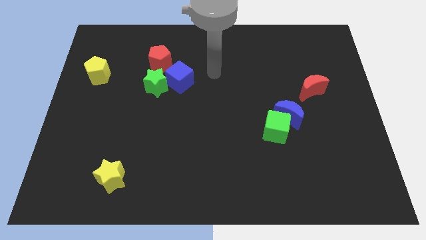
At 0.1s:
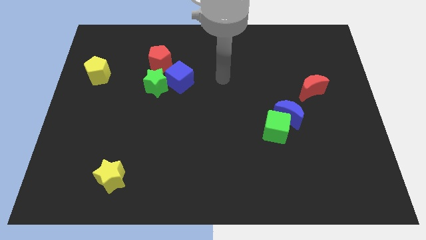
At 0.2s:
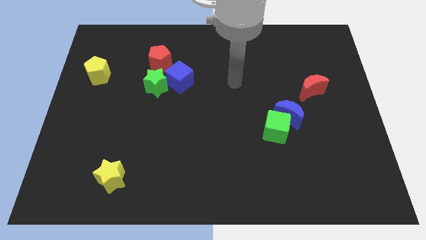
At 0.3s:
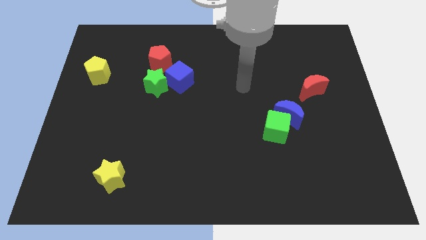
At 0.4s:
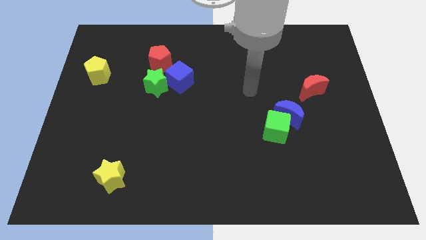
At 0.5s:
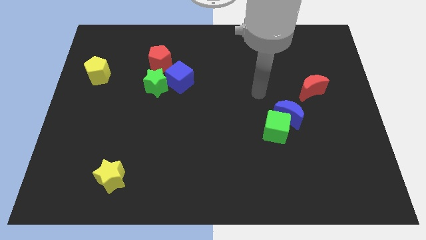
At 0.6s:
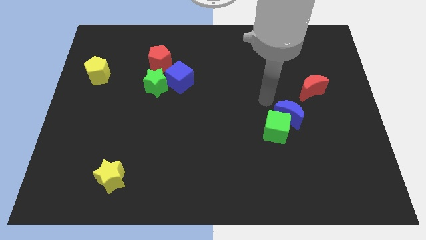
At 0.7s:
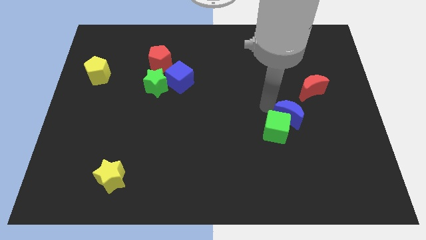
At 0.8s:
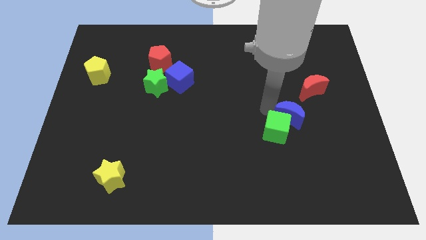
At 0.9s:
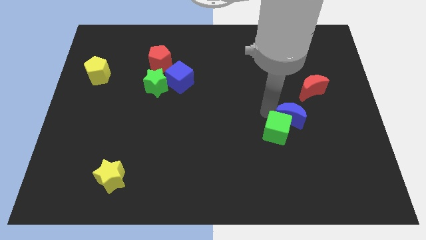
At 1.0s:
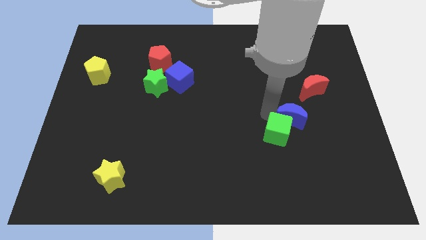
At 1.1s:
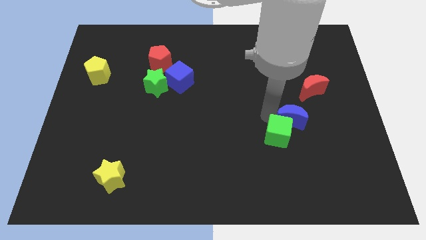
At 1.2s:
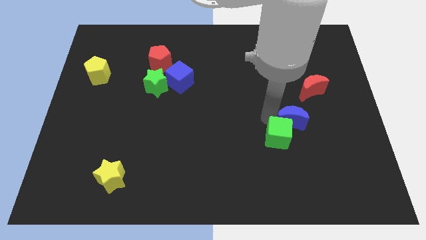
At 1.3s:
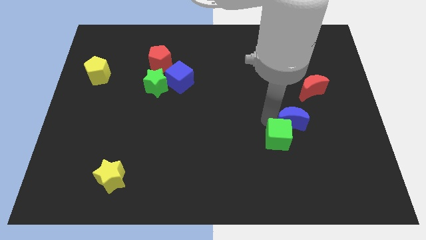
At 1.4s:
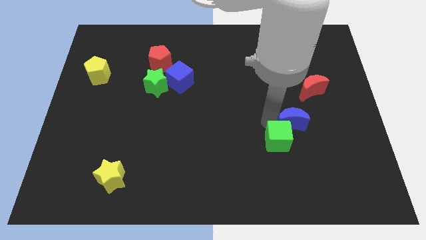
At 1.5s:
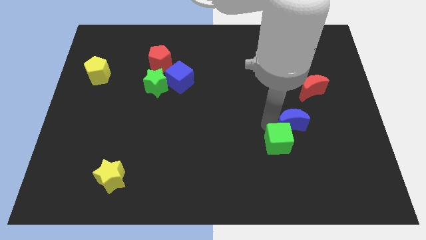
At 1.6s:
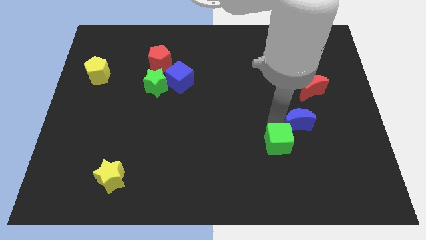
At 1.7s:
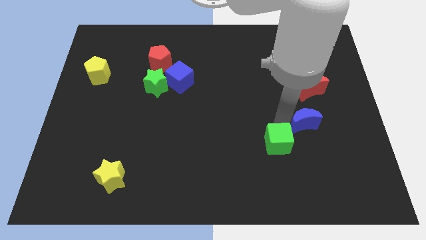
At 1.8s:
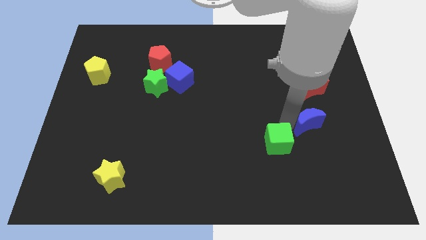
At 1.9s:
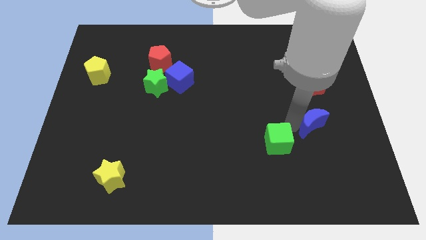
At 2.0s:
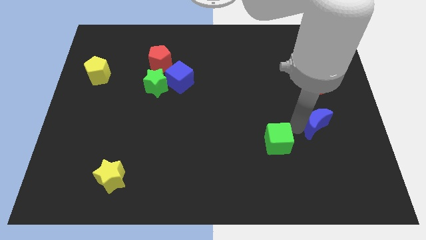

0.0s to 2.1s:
move the green cube away from the blue moon

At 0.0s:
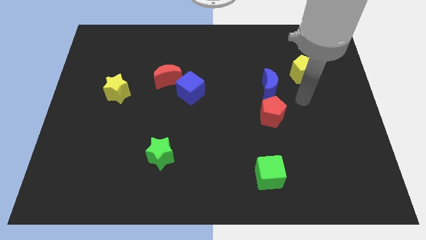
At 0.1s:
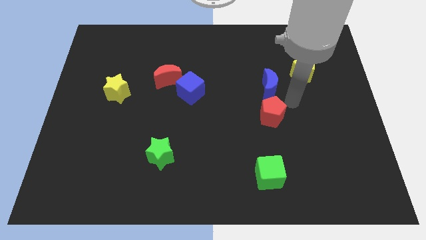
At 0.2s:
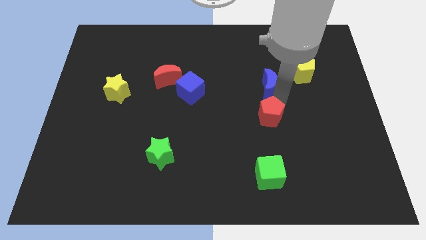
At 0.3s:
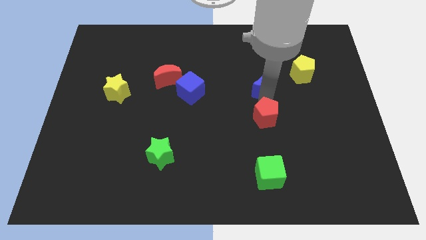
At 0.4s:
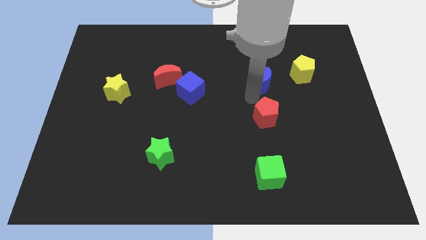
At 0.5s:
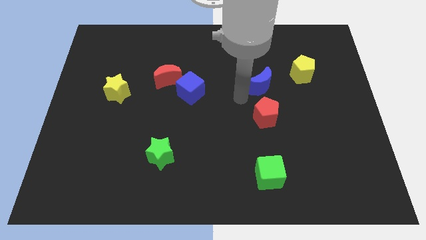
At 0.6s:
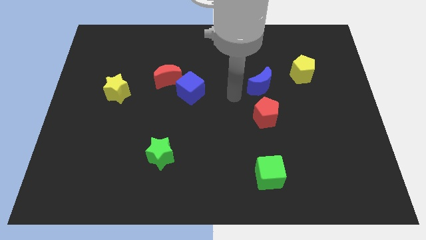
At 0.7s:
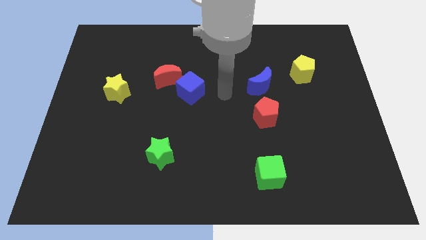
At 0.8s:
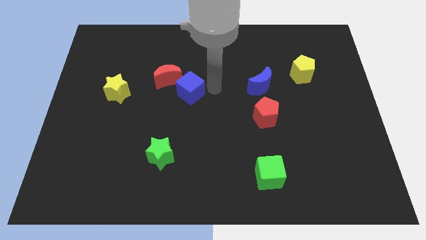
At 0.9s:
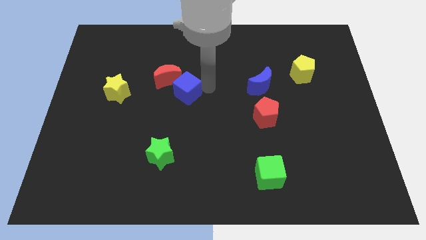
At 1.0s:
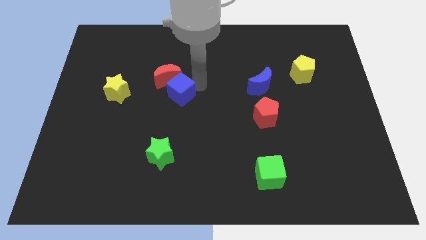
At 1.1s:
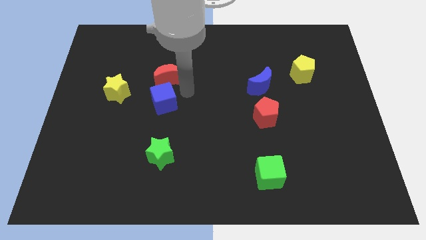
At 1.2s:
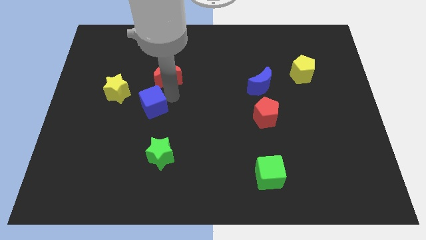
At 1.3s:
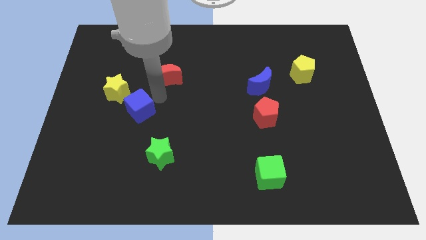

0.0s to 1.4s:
move the red moon away from the blue cube

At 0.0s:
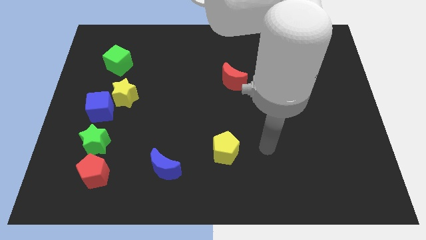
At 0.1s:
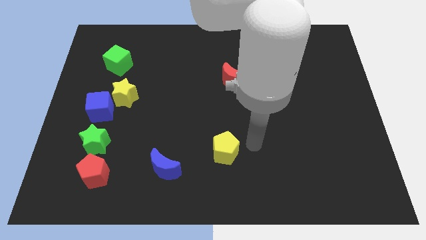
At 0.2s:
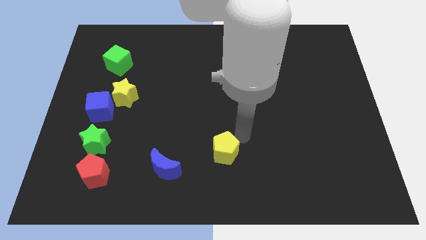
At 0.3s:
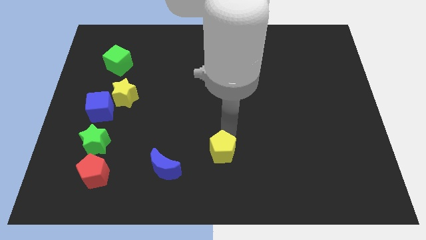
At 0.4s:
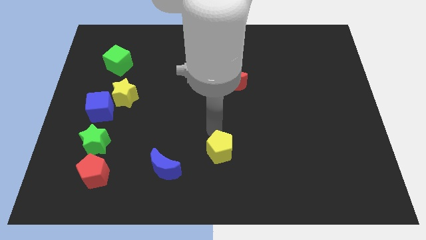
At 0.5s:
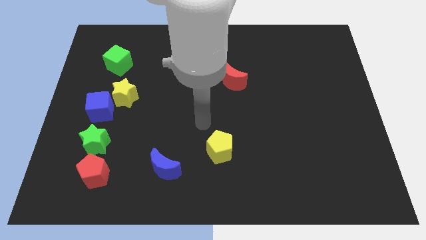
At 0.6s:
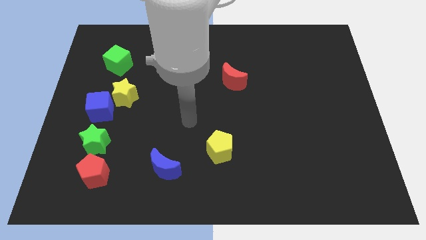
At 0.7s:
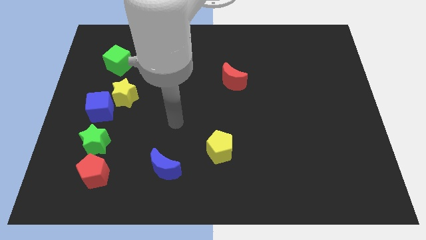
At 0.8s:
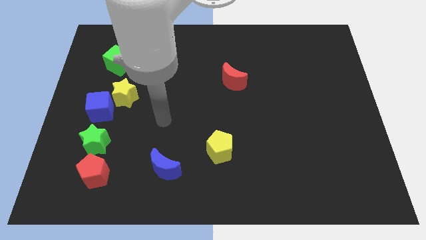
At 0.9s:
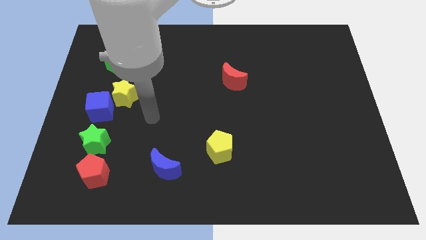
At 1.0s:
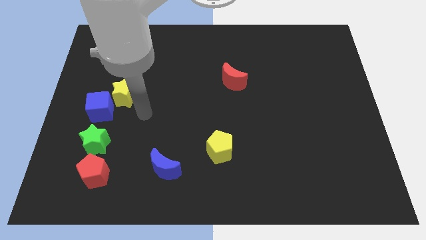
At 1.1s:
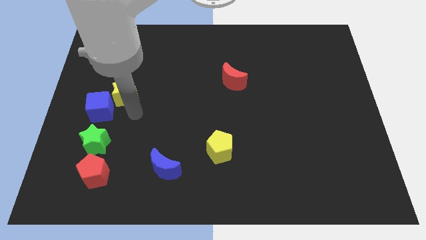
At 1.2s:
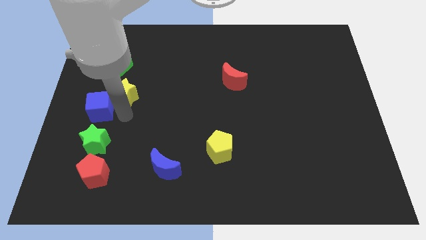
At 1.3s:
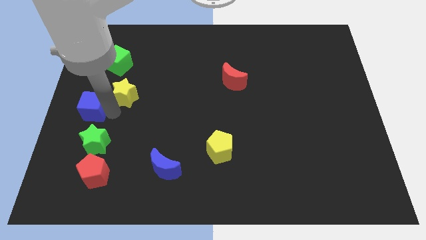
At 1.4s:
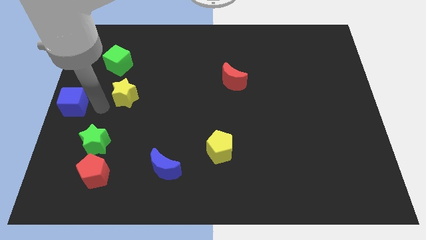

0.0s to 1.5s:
separate the yellow star from the blue cube

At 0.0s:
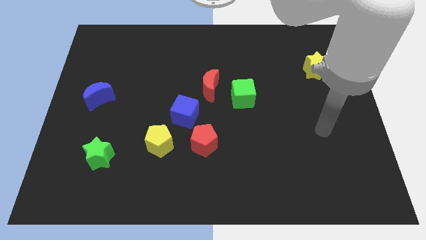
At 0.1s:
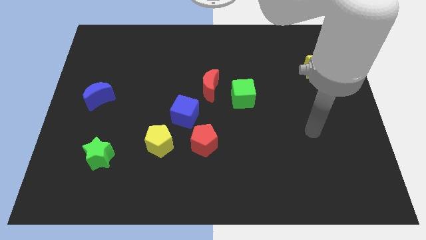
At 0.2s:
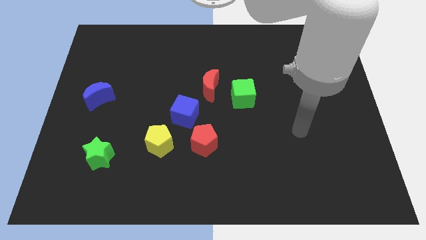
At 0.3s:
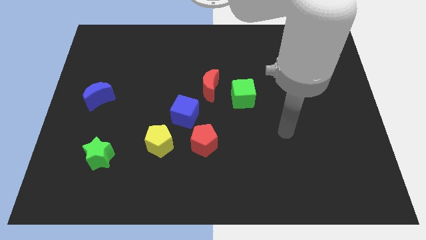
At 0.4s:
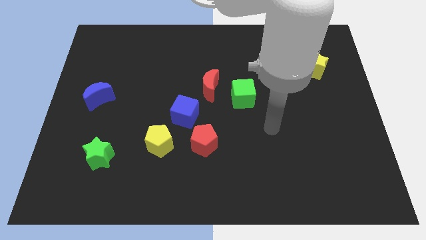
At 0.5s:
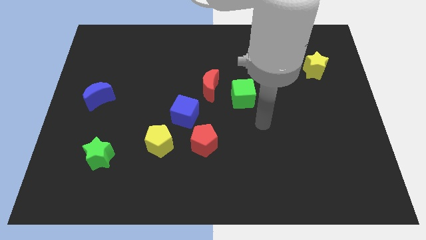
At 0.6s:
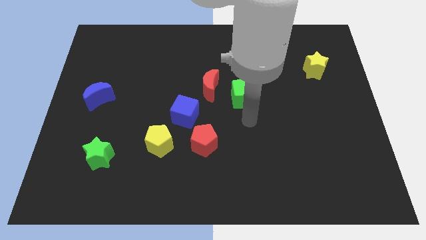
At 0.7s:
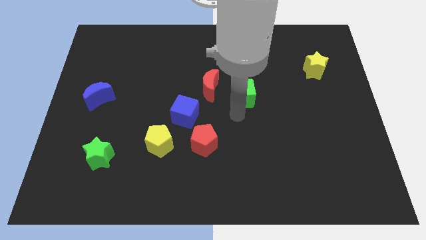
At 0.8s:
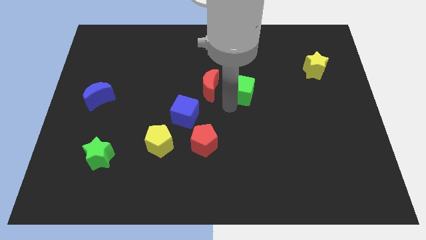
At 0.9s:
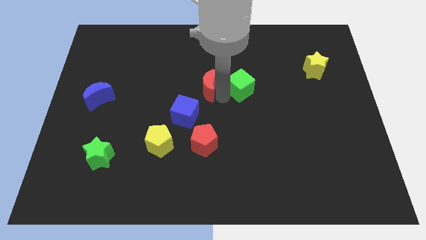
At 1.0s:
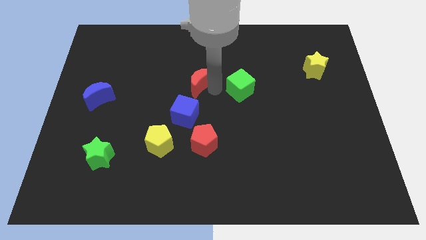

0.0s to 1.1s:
move the green cube away from the red moon

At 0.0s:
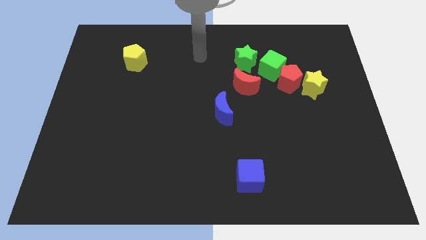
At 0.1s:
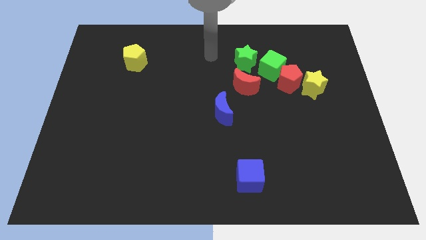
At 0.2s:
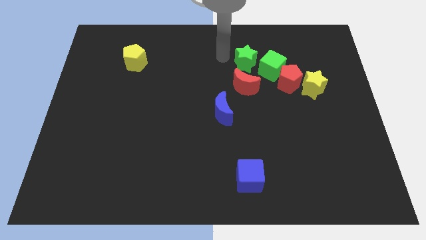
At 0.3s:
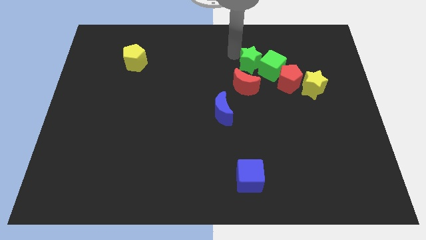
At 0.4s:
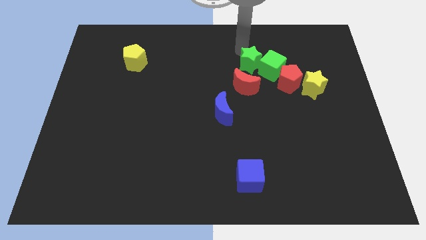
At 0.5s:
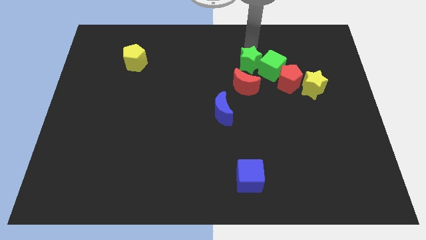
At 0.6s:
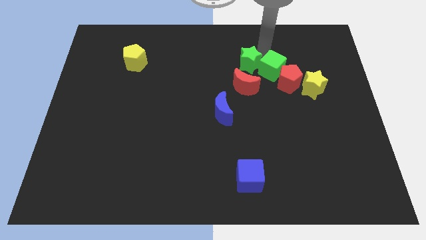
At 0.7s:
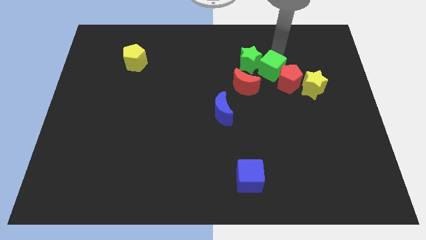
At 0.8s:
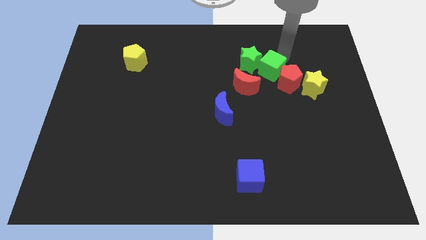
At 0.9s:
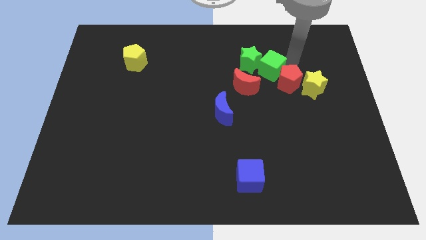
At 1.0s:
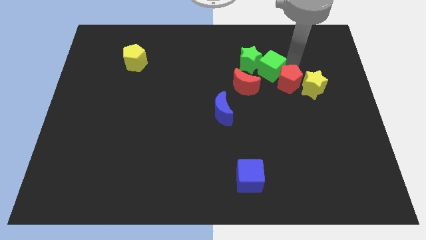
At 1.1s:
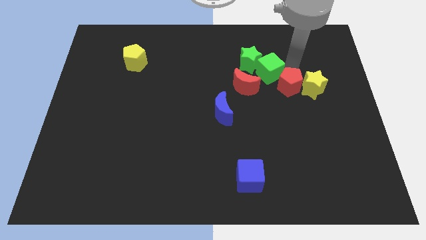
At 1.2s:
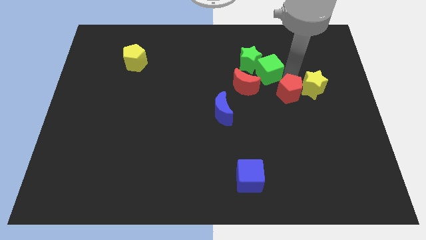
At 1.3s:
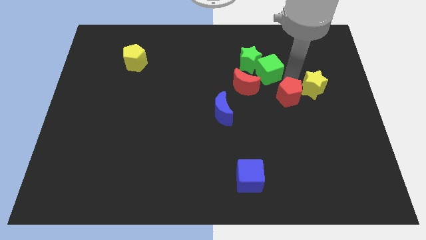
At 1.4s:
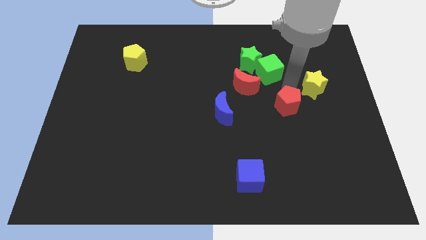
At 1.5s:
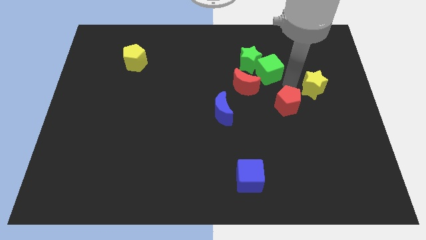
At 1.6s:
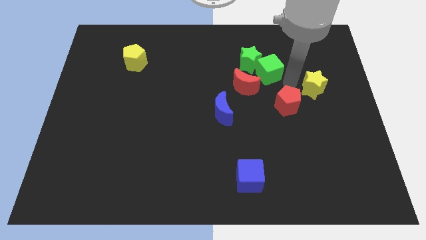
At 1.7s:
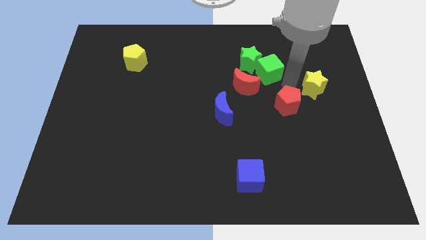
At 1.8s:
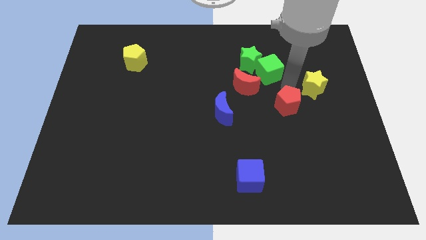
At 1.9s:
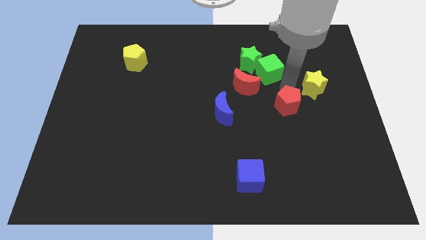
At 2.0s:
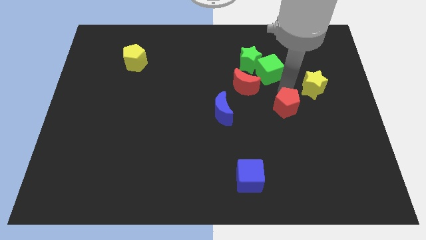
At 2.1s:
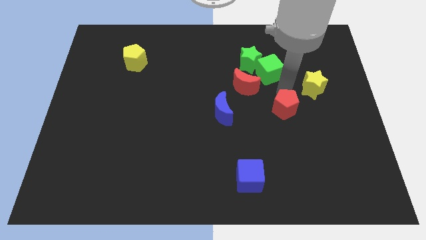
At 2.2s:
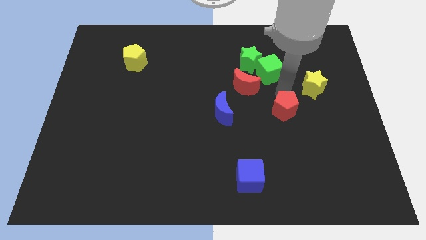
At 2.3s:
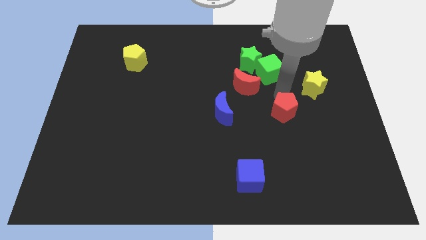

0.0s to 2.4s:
pull the red pentagon apart from the green cube and yellow star

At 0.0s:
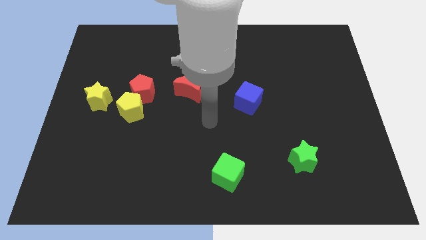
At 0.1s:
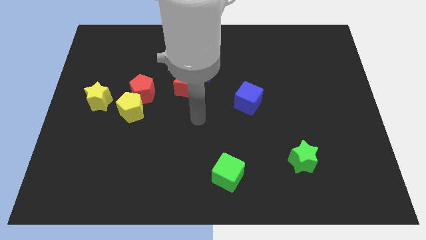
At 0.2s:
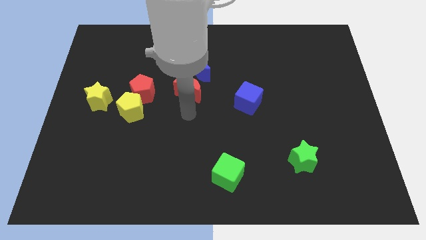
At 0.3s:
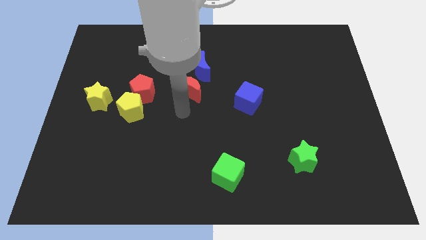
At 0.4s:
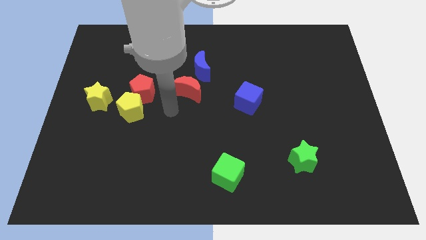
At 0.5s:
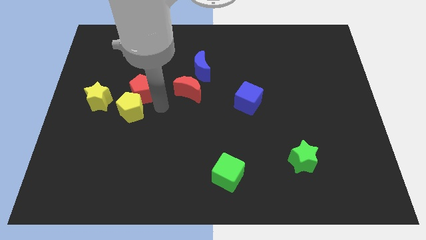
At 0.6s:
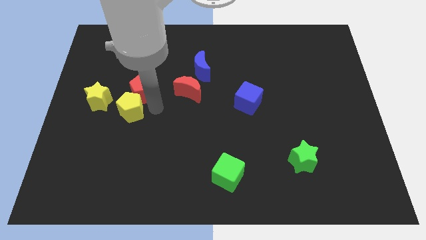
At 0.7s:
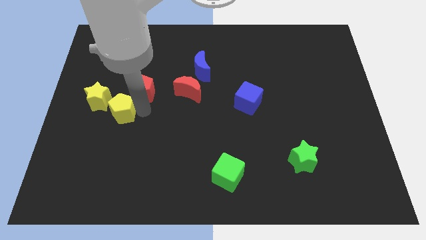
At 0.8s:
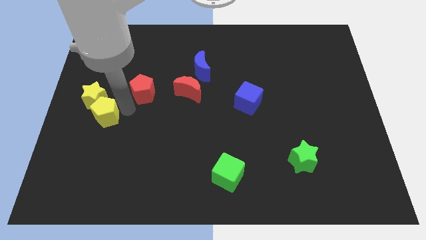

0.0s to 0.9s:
pull the red pentagon apart from the yellow pentagon

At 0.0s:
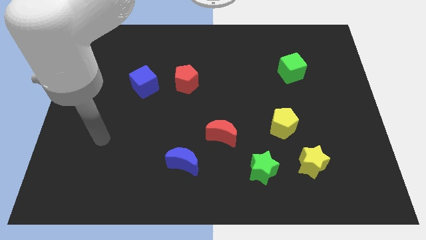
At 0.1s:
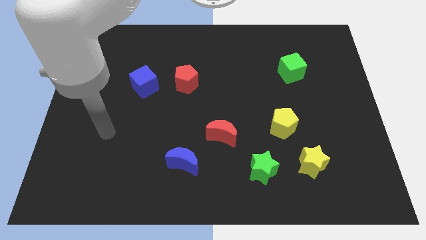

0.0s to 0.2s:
move the red pentagon away from the blue cube
